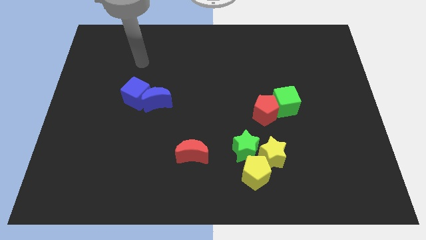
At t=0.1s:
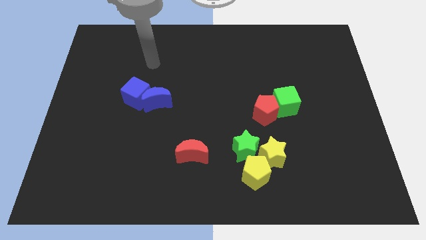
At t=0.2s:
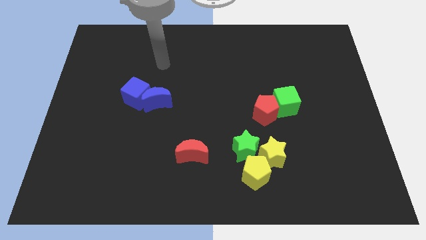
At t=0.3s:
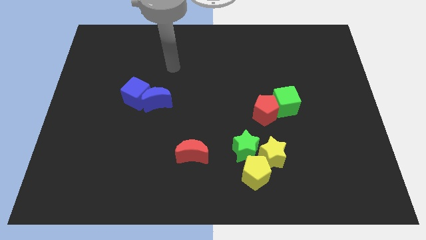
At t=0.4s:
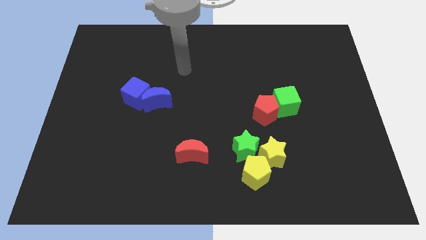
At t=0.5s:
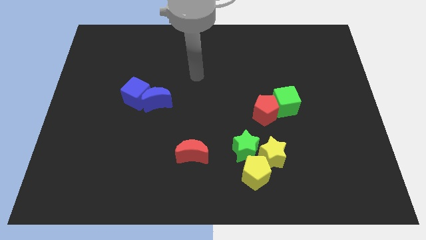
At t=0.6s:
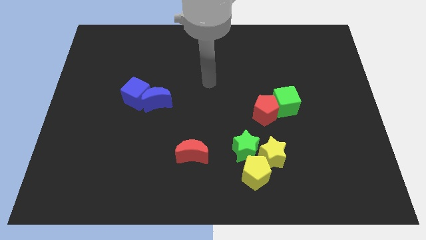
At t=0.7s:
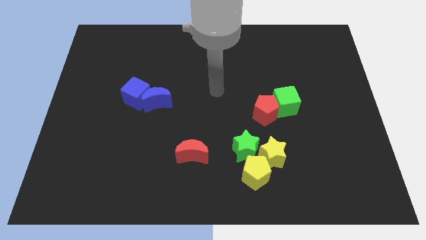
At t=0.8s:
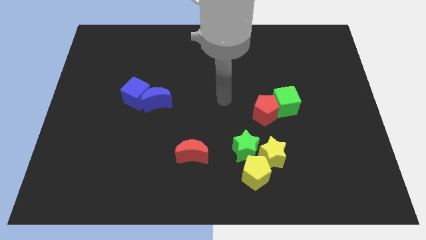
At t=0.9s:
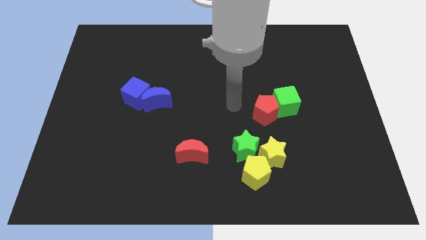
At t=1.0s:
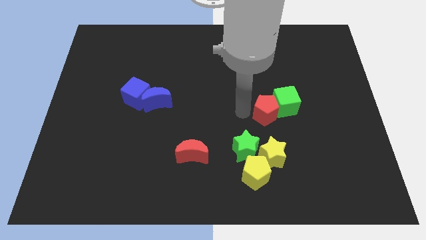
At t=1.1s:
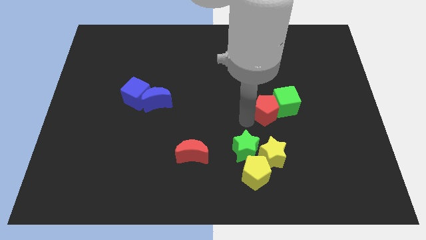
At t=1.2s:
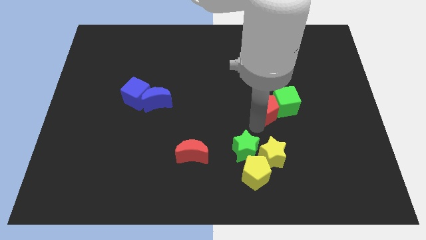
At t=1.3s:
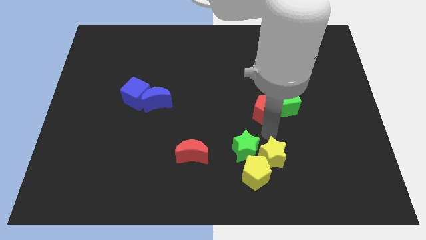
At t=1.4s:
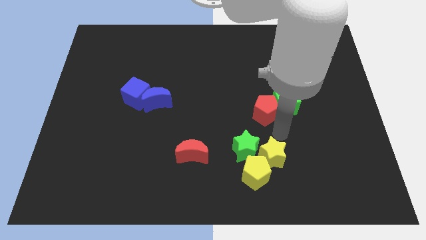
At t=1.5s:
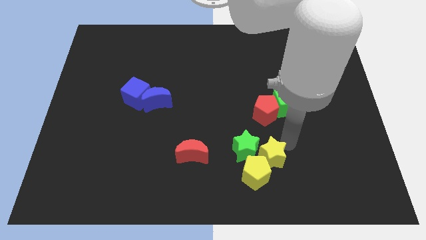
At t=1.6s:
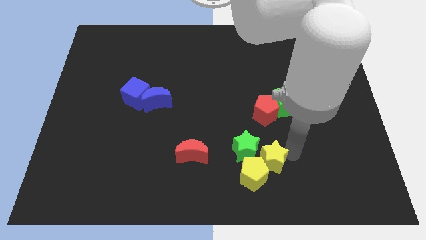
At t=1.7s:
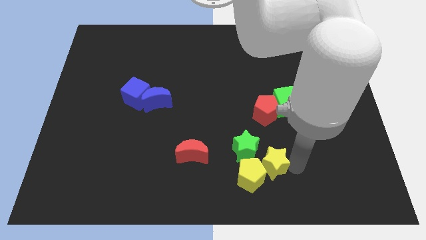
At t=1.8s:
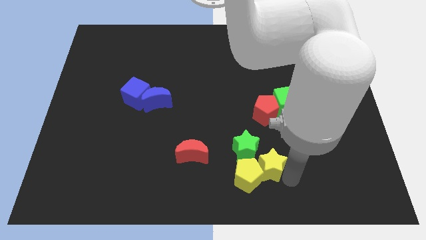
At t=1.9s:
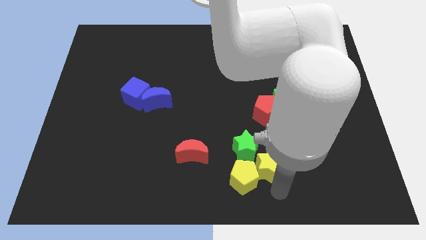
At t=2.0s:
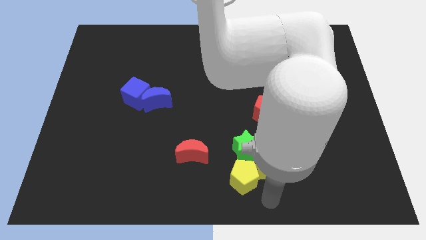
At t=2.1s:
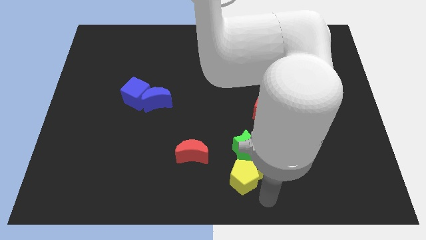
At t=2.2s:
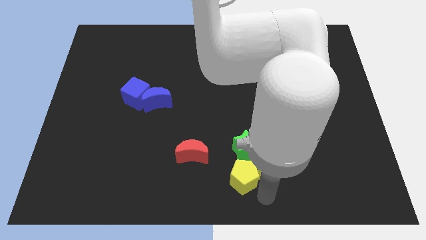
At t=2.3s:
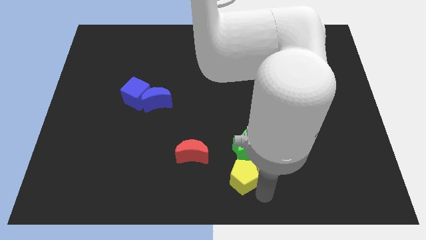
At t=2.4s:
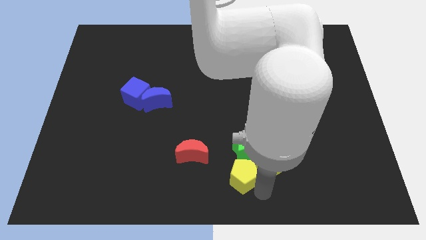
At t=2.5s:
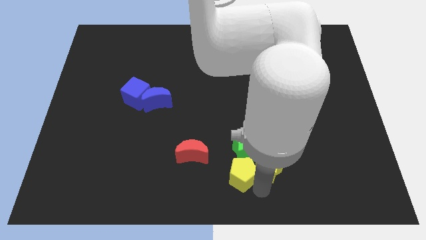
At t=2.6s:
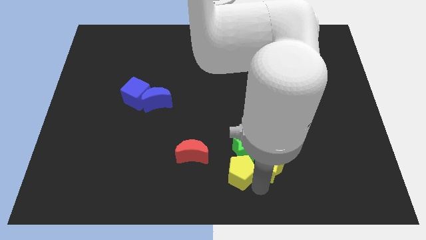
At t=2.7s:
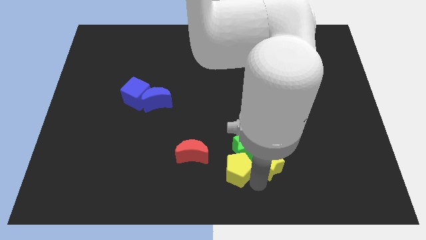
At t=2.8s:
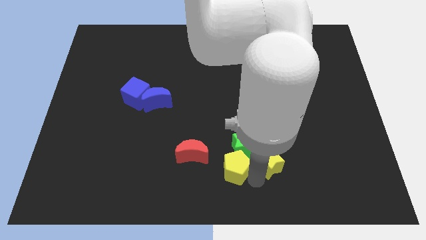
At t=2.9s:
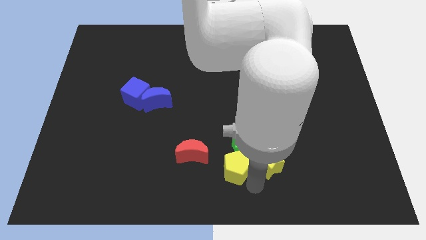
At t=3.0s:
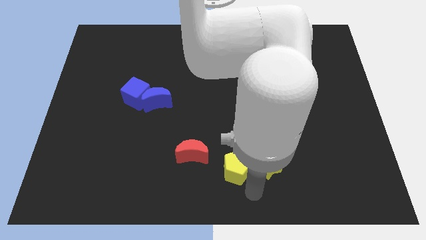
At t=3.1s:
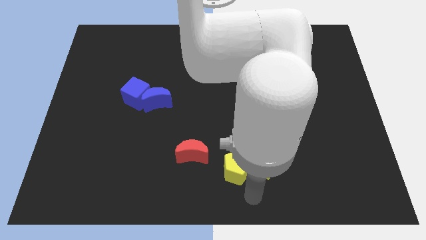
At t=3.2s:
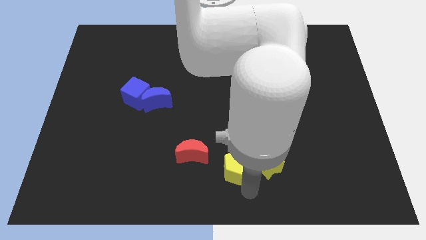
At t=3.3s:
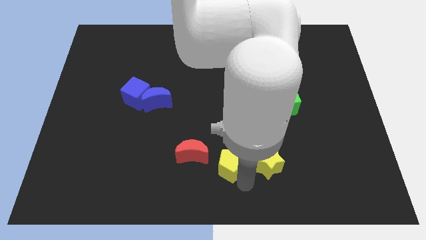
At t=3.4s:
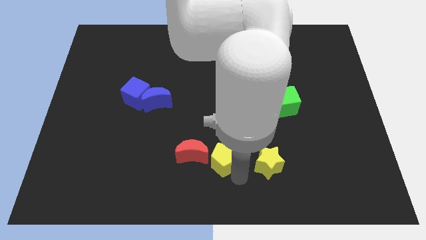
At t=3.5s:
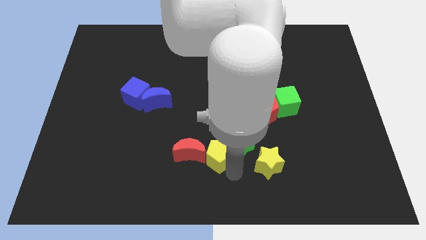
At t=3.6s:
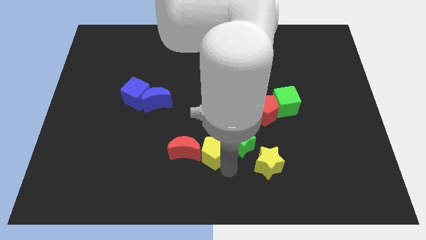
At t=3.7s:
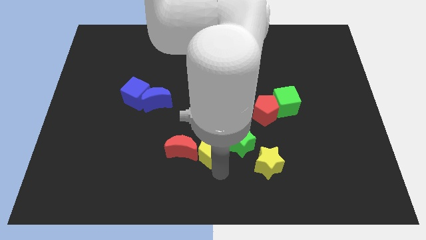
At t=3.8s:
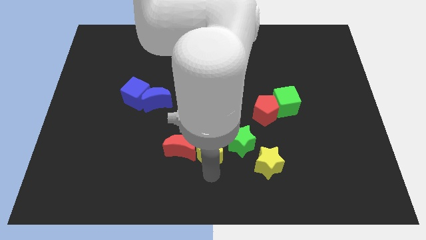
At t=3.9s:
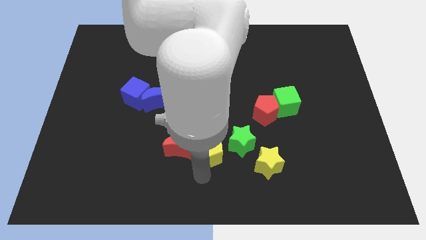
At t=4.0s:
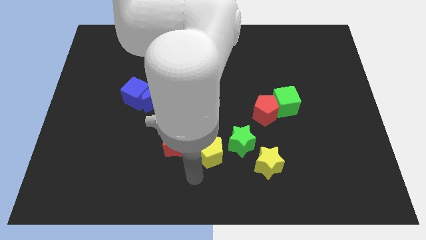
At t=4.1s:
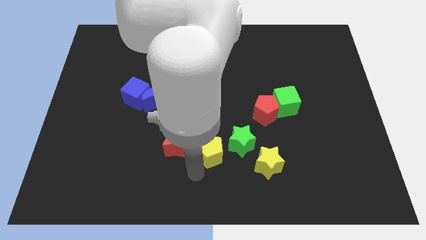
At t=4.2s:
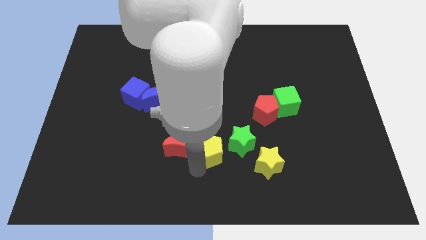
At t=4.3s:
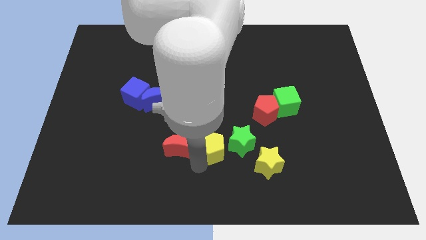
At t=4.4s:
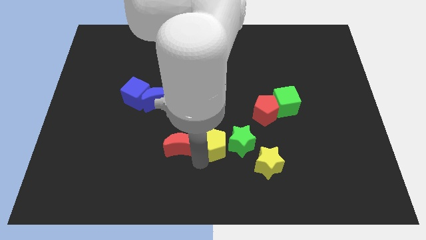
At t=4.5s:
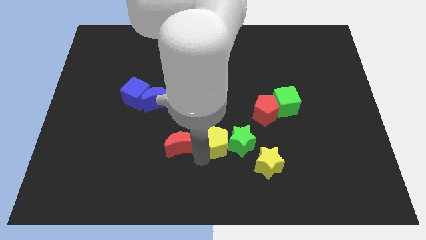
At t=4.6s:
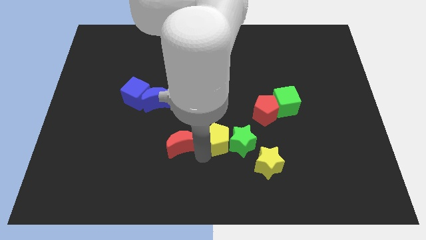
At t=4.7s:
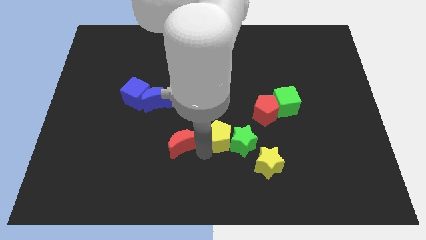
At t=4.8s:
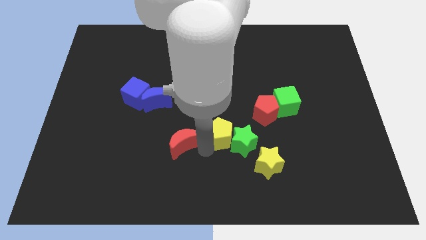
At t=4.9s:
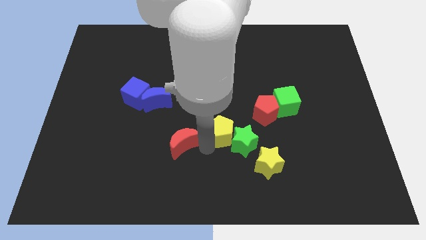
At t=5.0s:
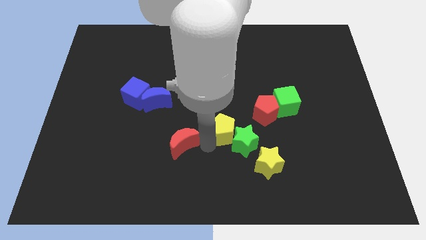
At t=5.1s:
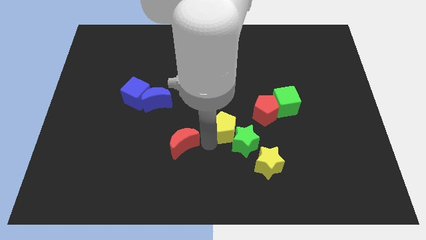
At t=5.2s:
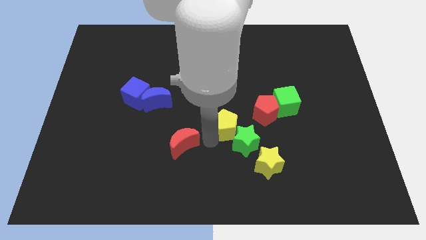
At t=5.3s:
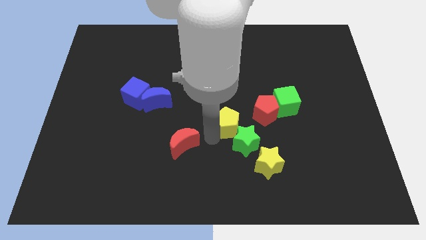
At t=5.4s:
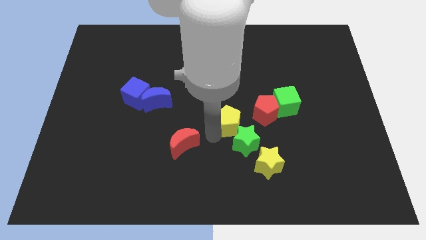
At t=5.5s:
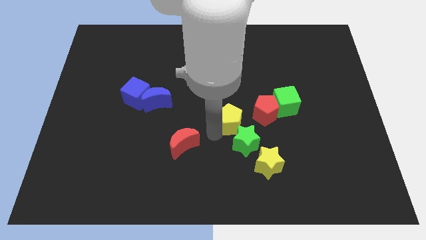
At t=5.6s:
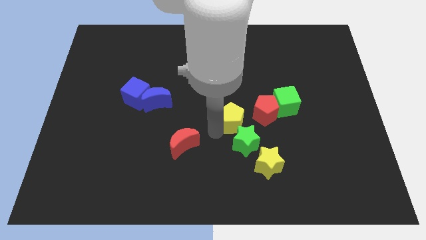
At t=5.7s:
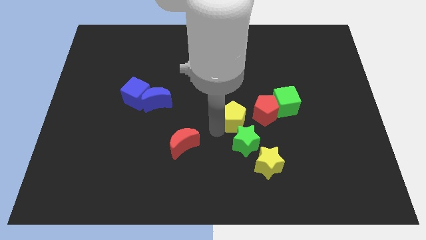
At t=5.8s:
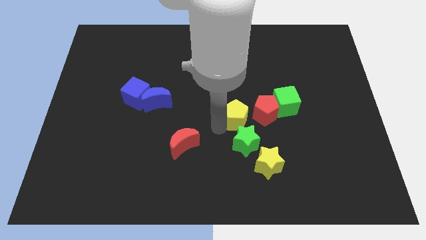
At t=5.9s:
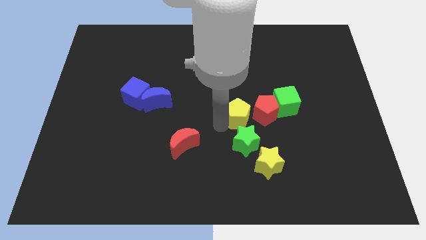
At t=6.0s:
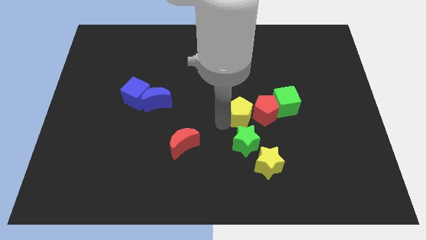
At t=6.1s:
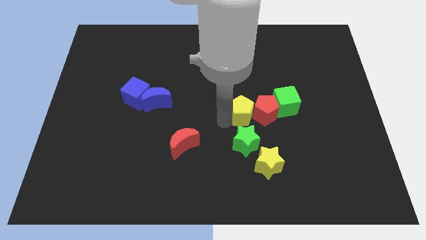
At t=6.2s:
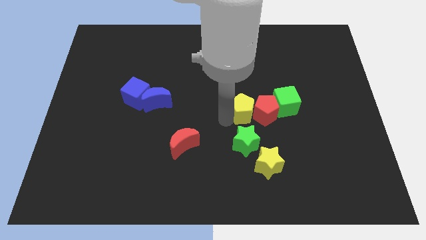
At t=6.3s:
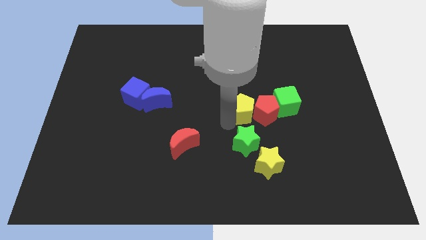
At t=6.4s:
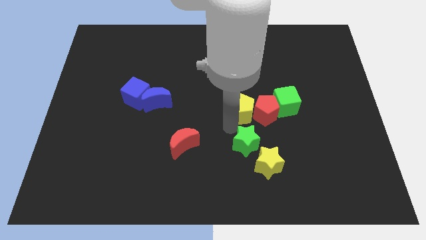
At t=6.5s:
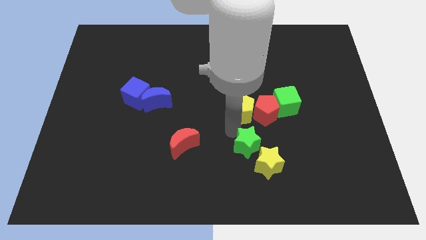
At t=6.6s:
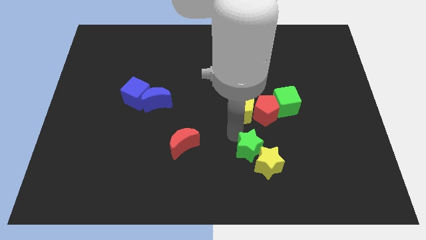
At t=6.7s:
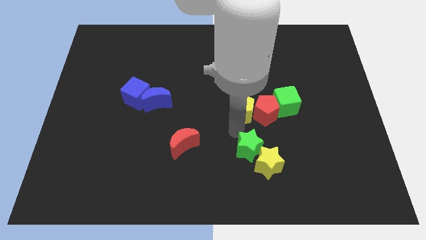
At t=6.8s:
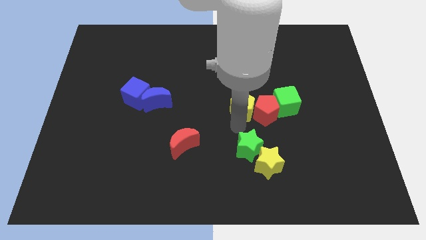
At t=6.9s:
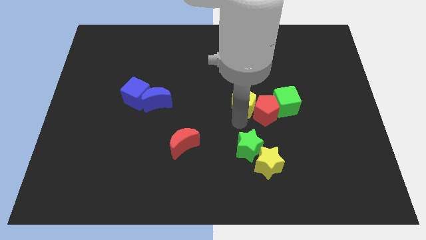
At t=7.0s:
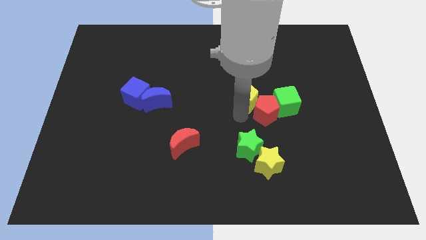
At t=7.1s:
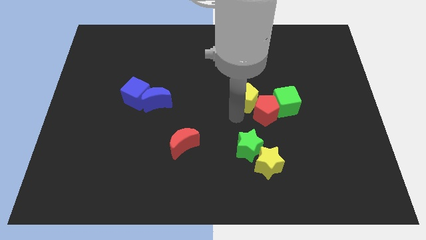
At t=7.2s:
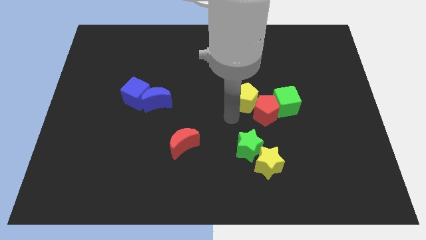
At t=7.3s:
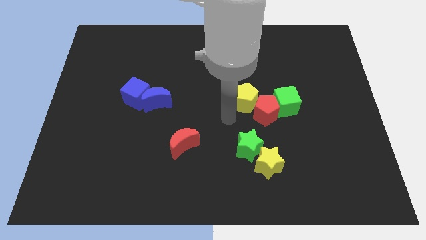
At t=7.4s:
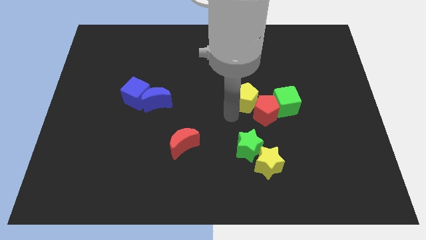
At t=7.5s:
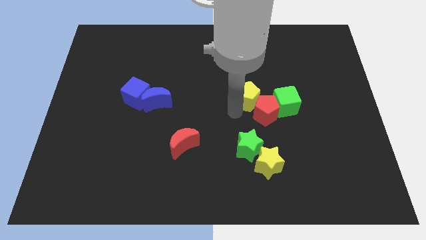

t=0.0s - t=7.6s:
slide the yellow pentagon up

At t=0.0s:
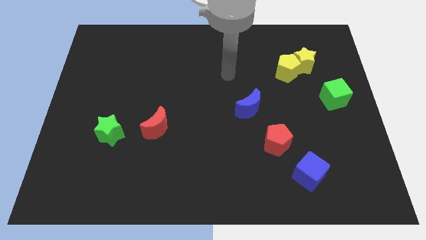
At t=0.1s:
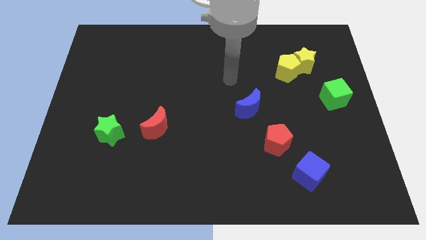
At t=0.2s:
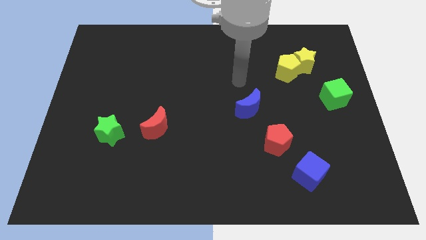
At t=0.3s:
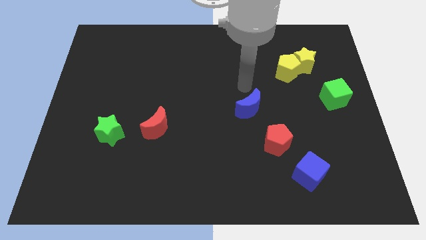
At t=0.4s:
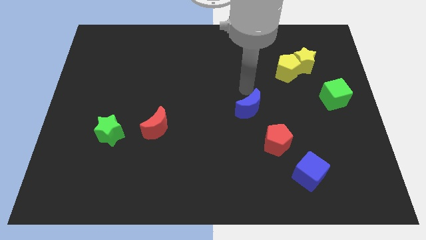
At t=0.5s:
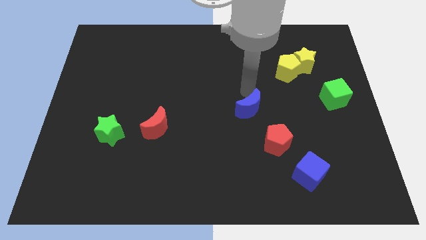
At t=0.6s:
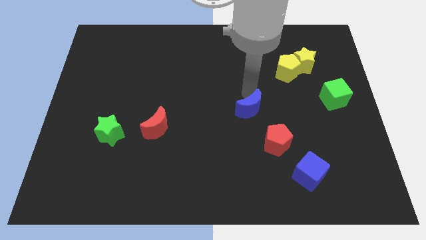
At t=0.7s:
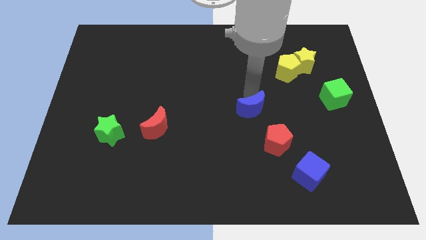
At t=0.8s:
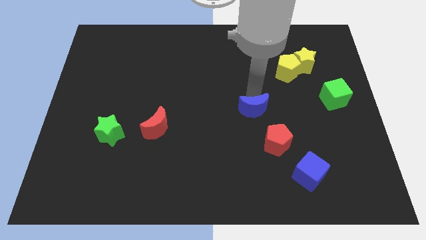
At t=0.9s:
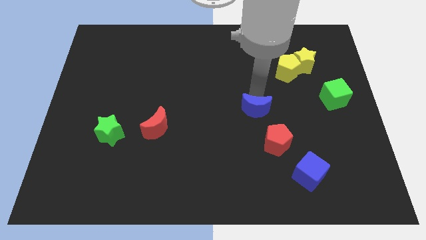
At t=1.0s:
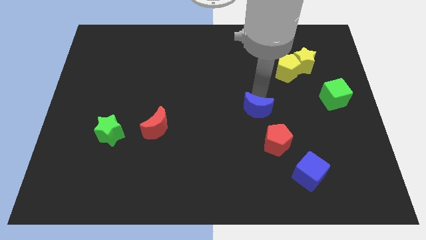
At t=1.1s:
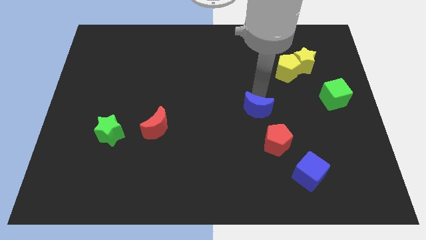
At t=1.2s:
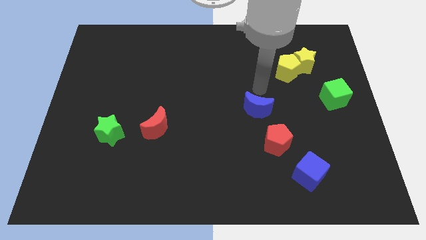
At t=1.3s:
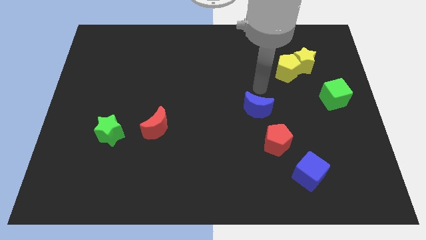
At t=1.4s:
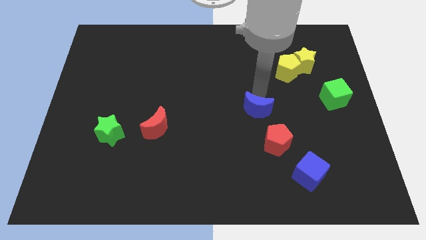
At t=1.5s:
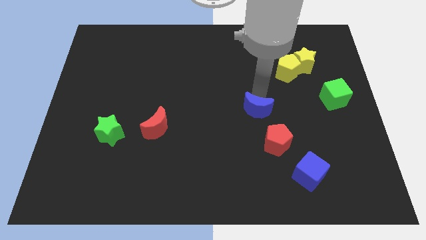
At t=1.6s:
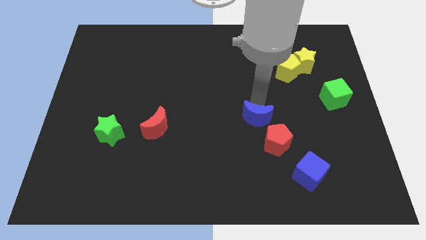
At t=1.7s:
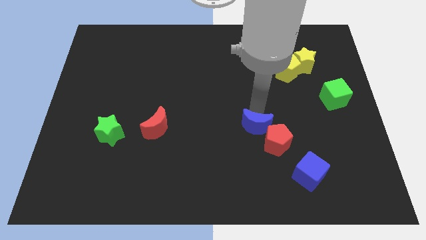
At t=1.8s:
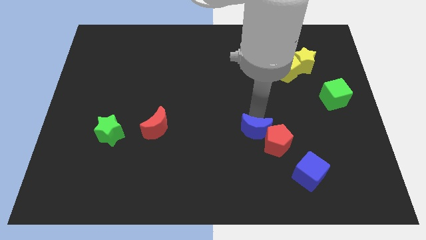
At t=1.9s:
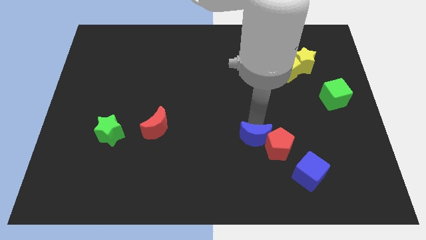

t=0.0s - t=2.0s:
slide the blue moon down slightly
